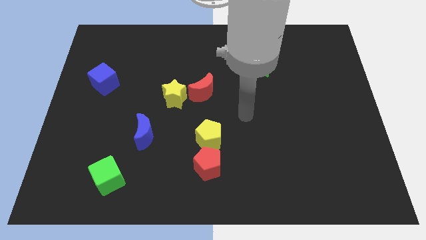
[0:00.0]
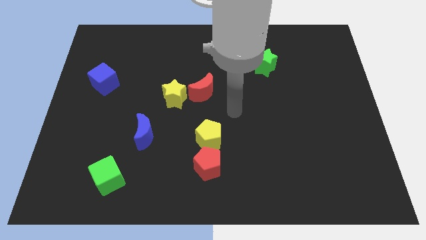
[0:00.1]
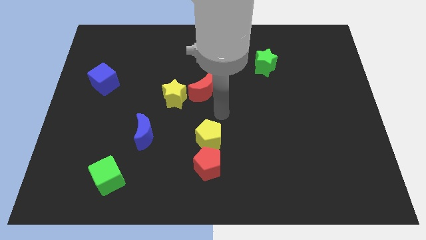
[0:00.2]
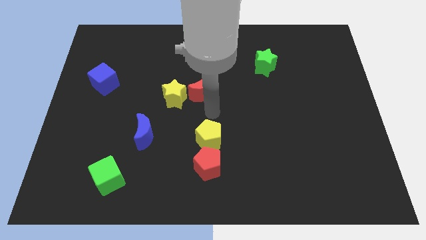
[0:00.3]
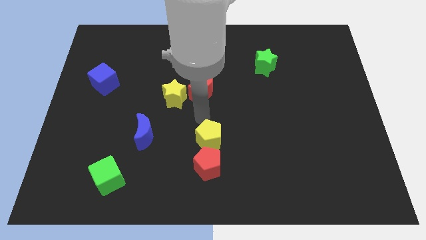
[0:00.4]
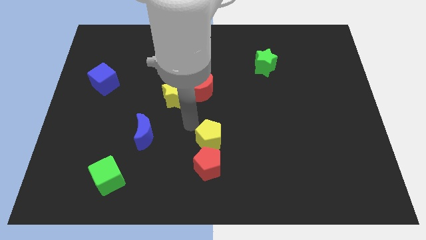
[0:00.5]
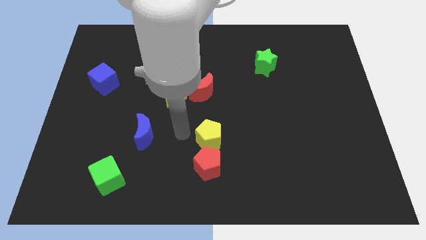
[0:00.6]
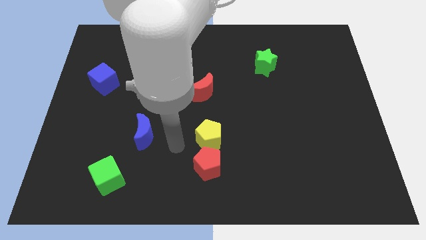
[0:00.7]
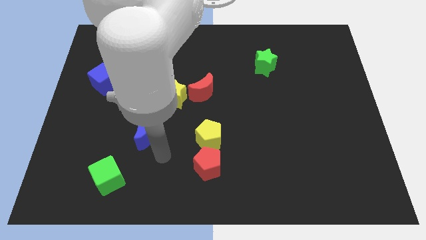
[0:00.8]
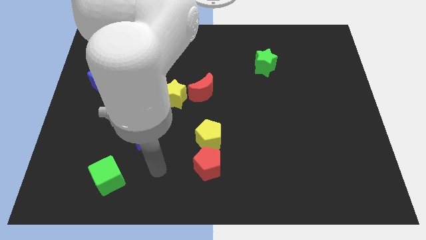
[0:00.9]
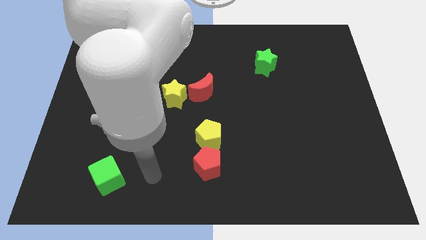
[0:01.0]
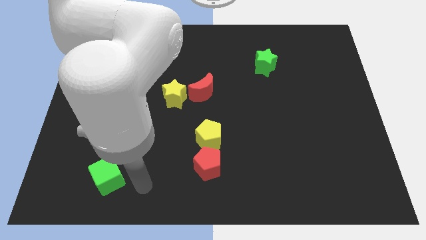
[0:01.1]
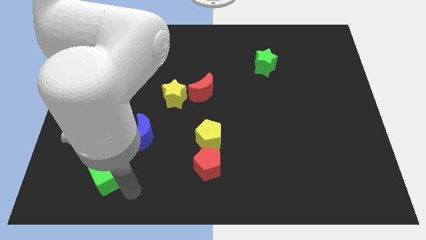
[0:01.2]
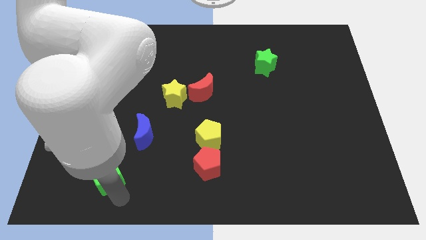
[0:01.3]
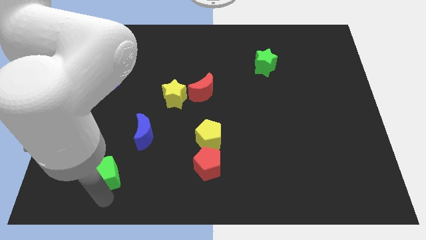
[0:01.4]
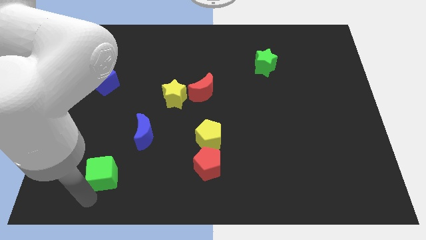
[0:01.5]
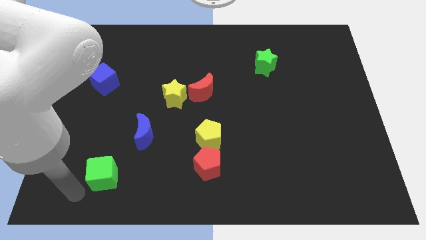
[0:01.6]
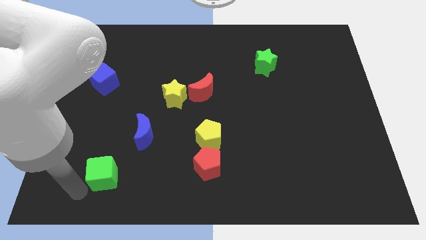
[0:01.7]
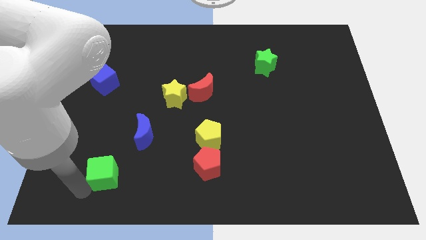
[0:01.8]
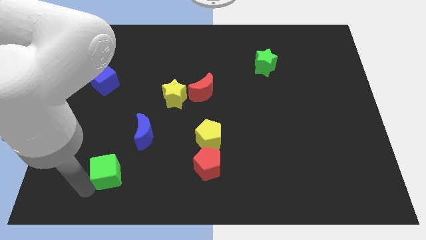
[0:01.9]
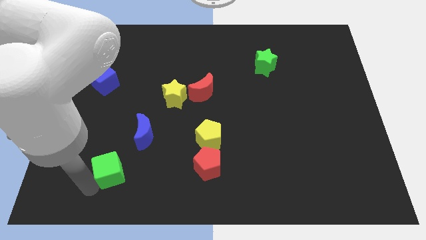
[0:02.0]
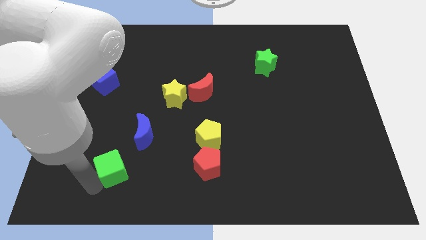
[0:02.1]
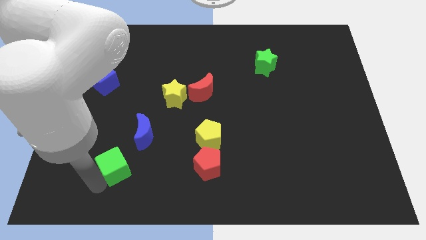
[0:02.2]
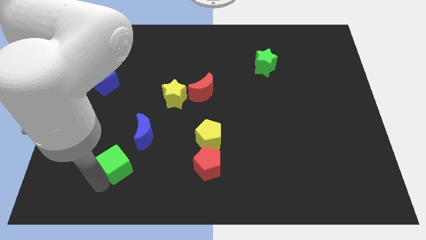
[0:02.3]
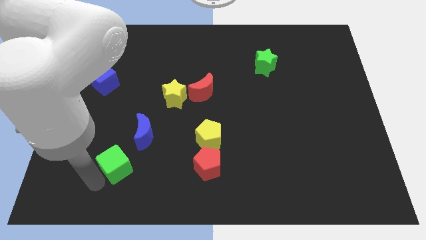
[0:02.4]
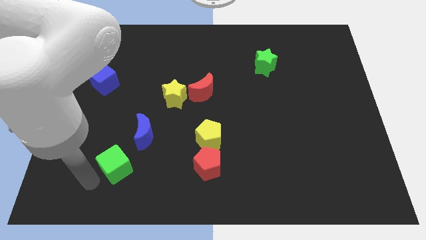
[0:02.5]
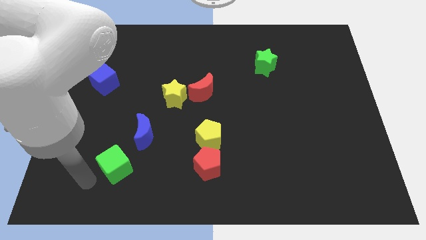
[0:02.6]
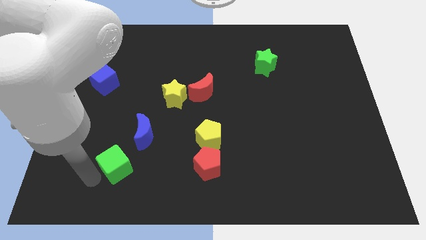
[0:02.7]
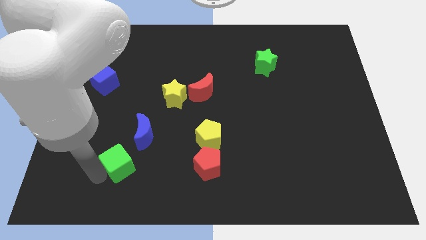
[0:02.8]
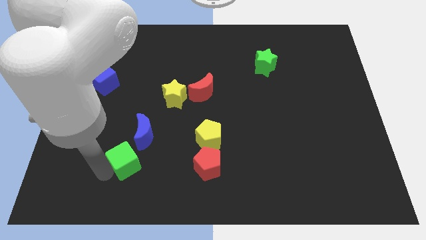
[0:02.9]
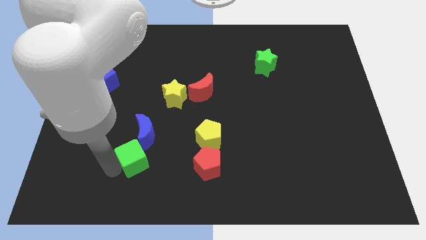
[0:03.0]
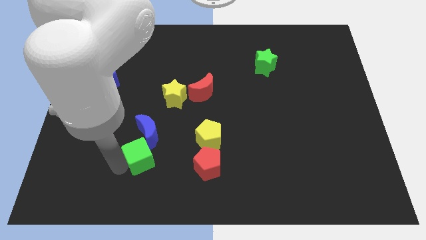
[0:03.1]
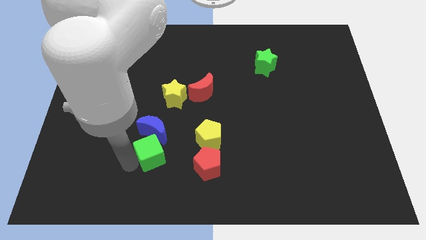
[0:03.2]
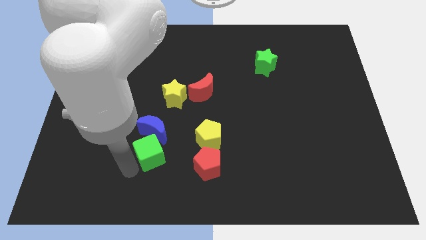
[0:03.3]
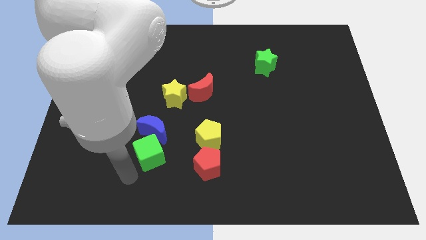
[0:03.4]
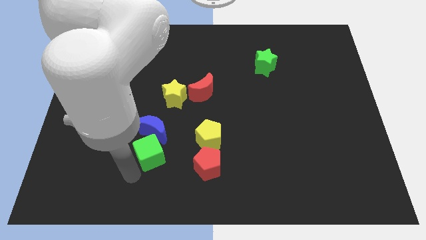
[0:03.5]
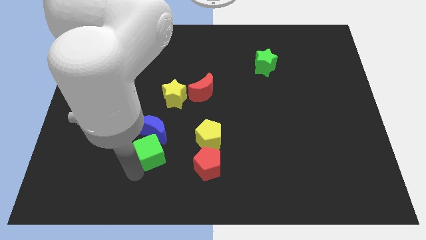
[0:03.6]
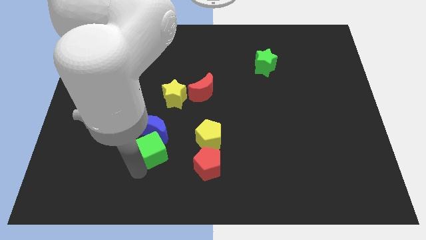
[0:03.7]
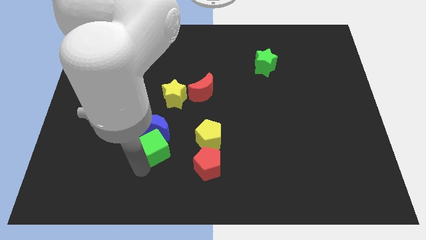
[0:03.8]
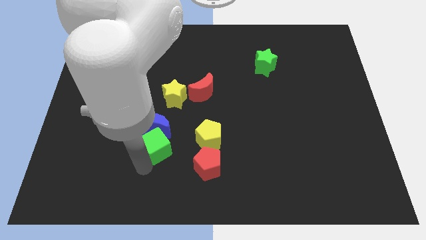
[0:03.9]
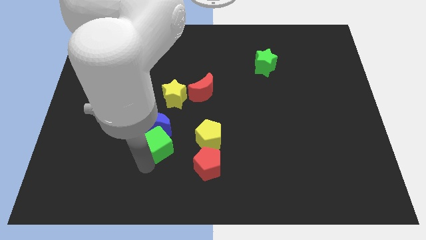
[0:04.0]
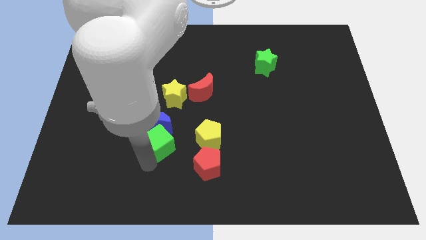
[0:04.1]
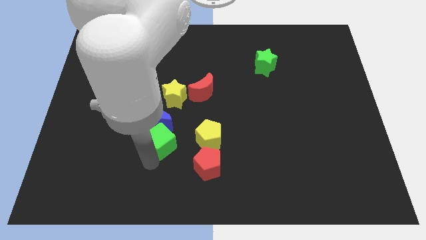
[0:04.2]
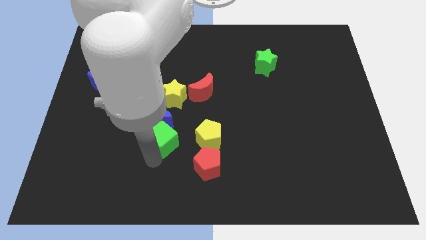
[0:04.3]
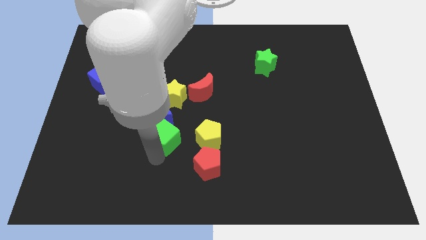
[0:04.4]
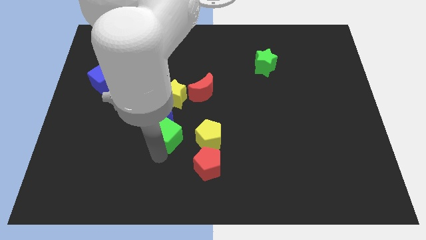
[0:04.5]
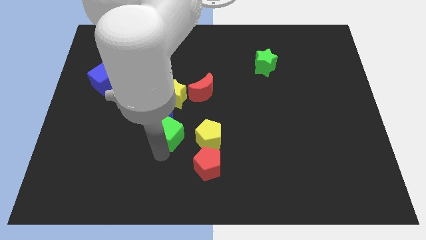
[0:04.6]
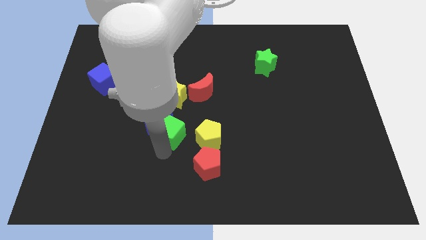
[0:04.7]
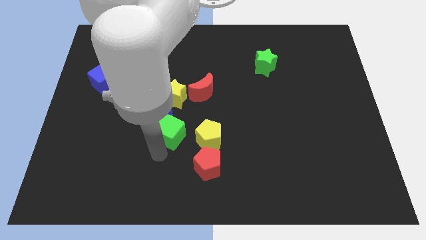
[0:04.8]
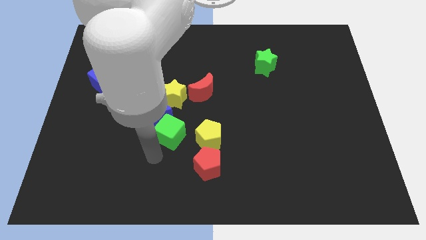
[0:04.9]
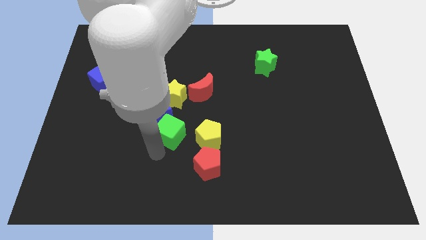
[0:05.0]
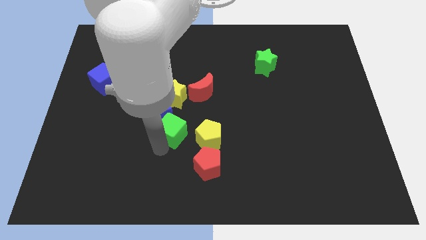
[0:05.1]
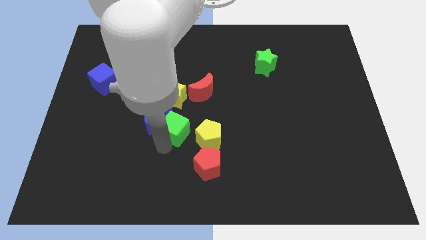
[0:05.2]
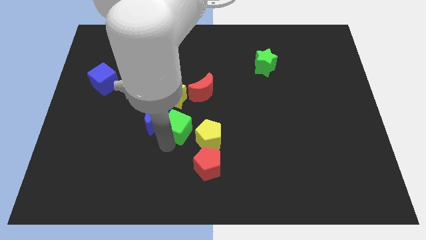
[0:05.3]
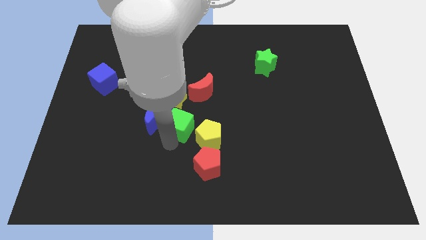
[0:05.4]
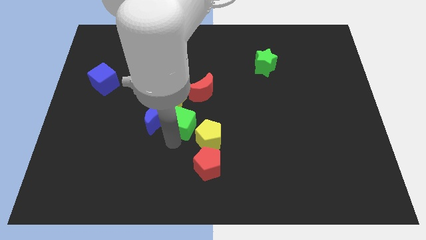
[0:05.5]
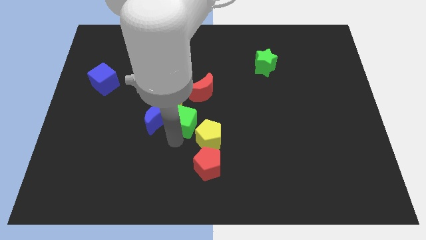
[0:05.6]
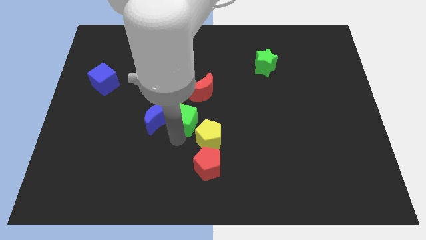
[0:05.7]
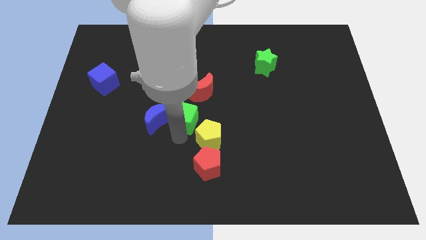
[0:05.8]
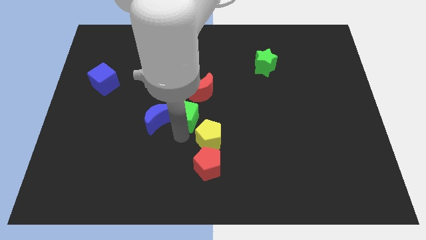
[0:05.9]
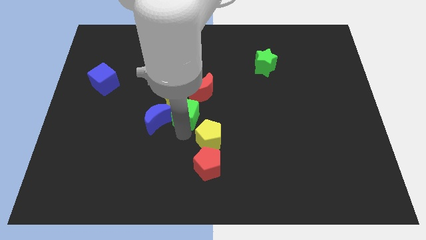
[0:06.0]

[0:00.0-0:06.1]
push the green cube to the yellow star

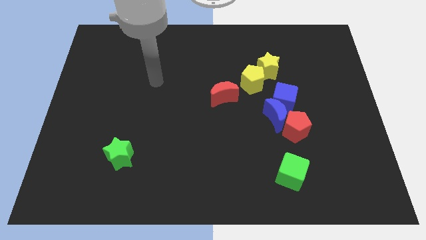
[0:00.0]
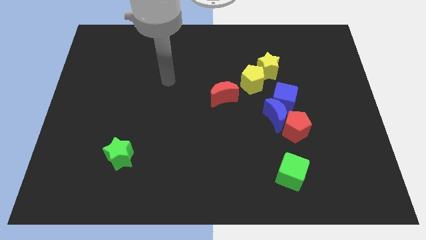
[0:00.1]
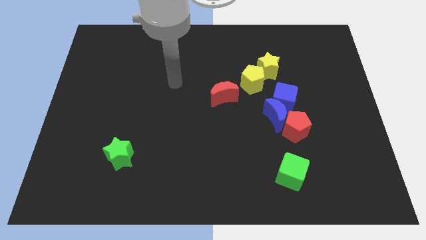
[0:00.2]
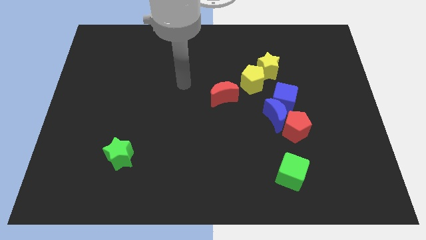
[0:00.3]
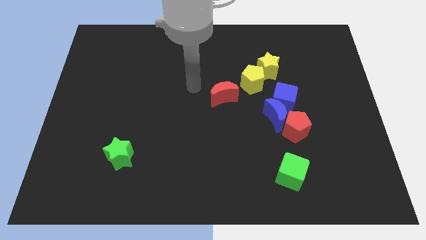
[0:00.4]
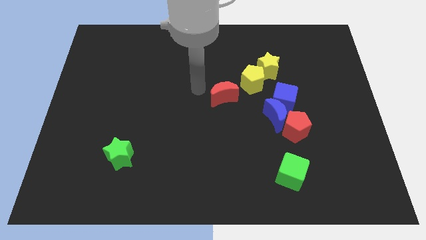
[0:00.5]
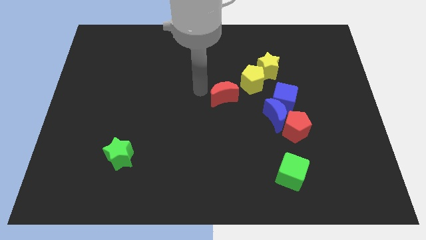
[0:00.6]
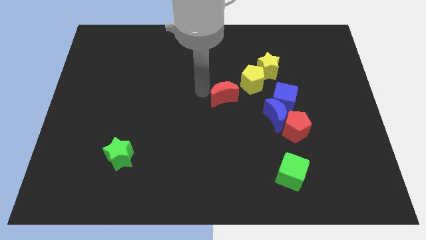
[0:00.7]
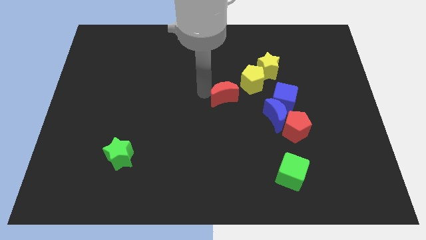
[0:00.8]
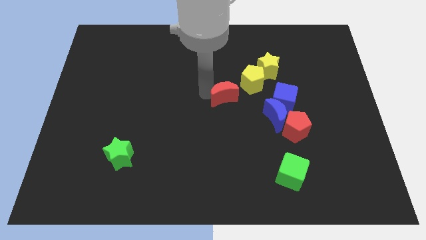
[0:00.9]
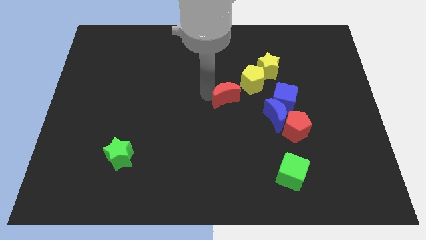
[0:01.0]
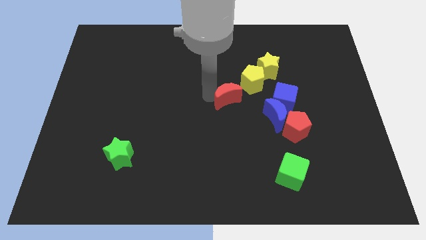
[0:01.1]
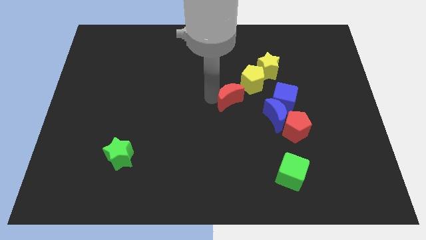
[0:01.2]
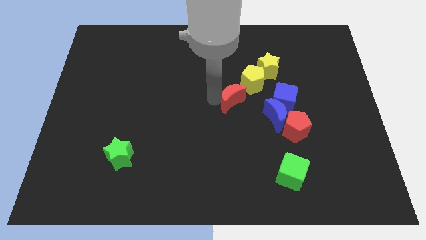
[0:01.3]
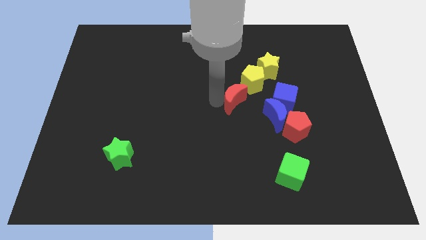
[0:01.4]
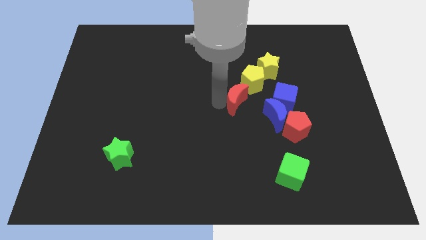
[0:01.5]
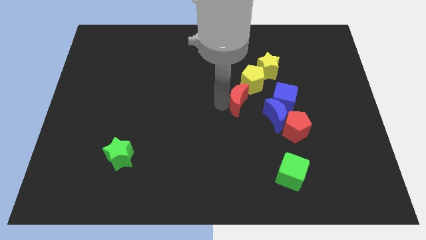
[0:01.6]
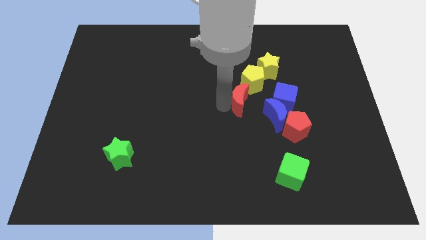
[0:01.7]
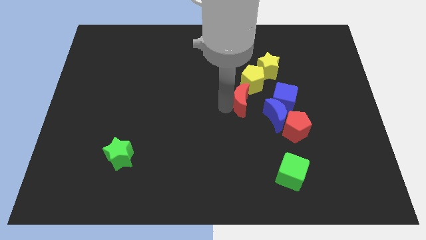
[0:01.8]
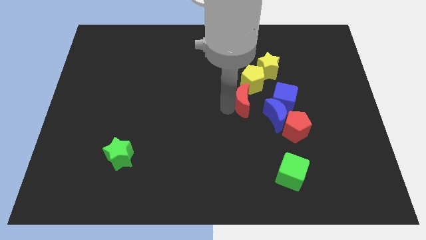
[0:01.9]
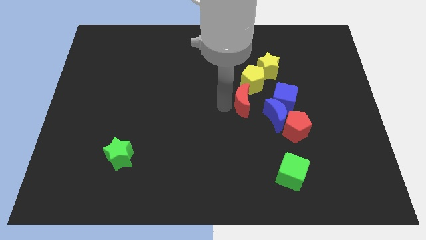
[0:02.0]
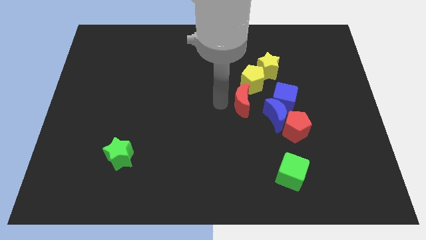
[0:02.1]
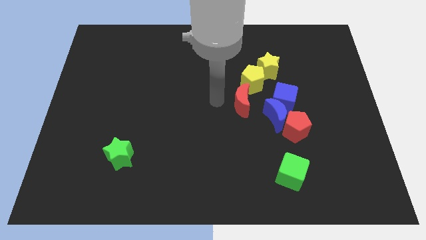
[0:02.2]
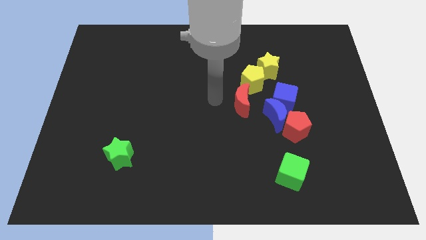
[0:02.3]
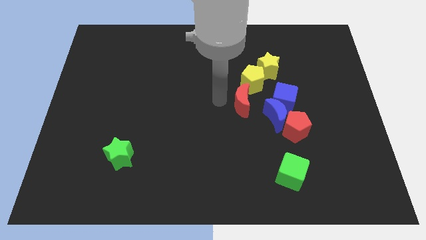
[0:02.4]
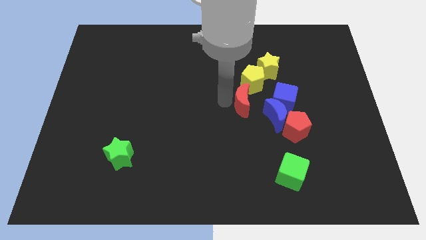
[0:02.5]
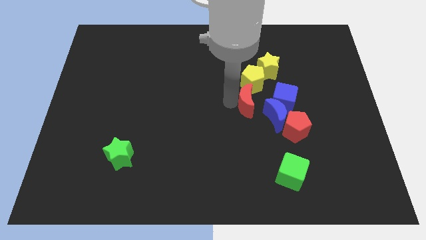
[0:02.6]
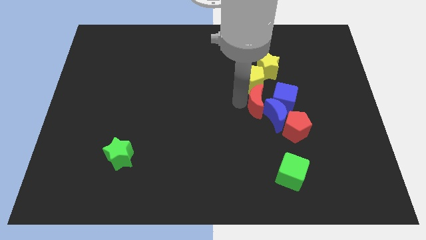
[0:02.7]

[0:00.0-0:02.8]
put the red moon towards the blue moon
